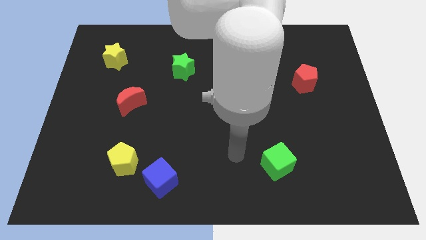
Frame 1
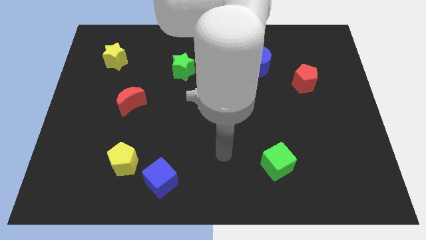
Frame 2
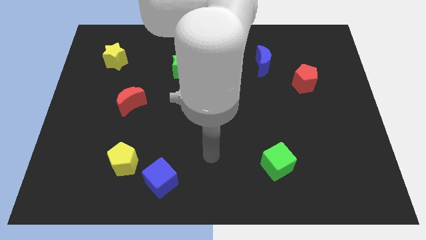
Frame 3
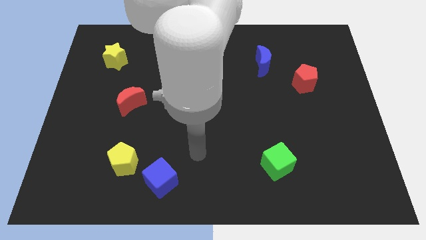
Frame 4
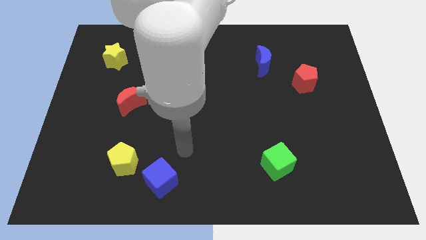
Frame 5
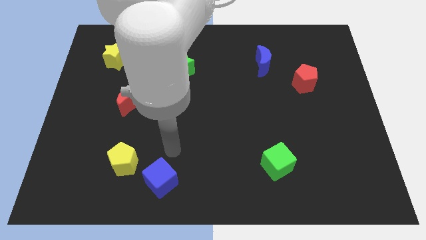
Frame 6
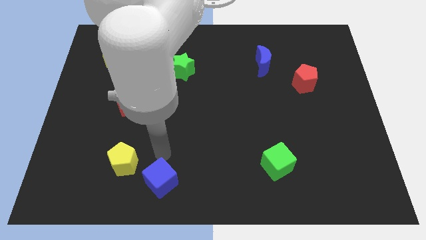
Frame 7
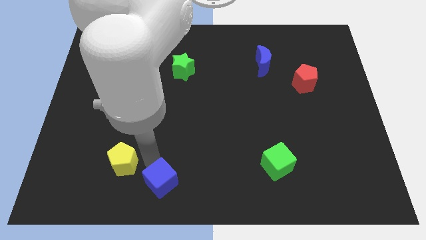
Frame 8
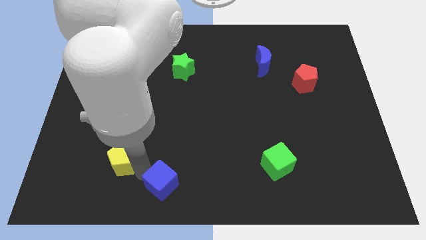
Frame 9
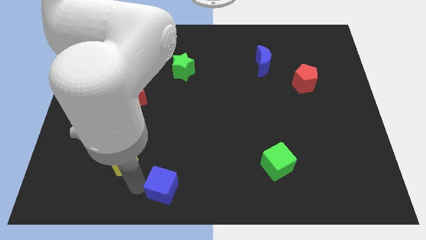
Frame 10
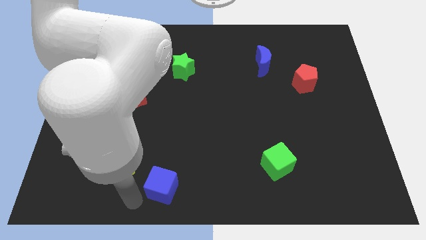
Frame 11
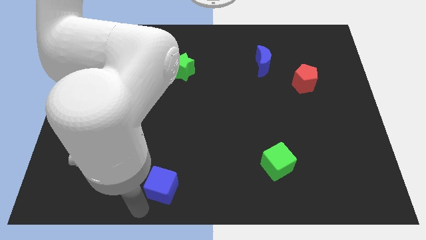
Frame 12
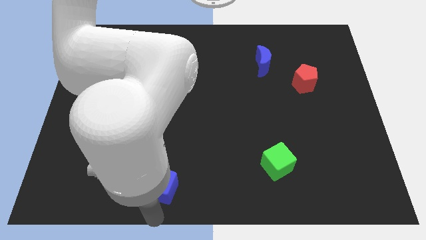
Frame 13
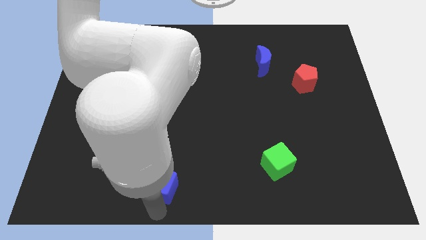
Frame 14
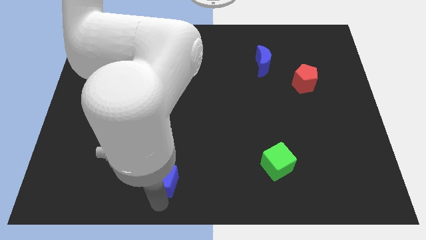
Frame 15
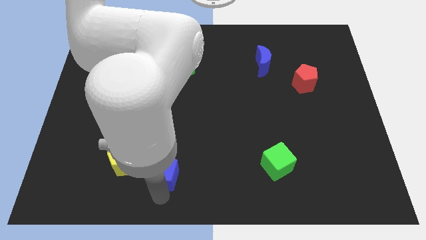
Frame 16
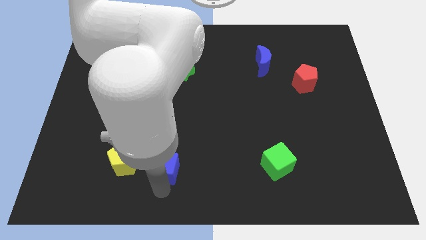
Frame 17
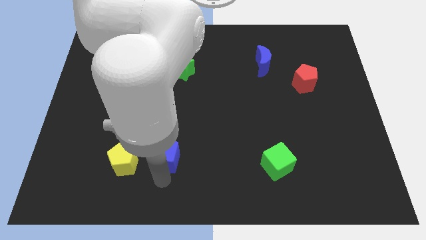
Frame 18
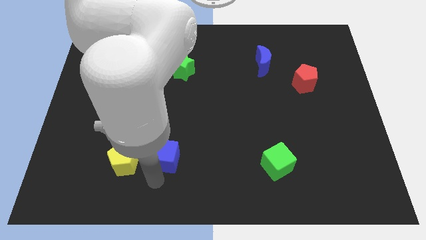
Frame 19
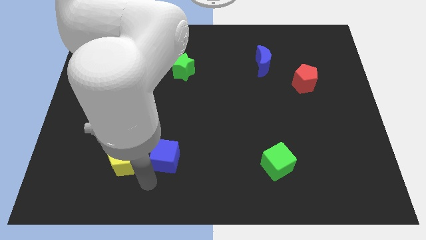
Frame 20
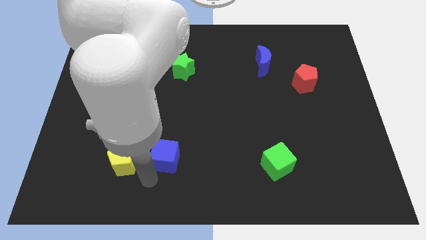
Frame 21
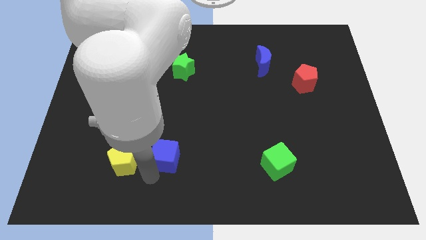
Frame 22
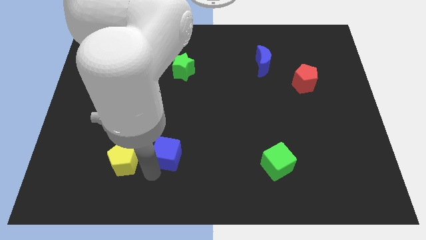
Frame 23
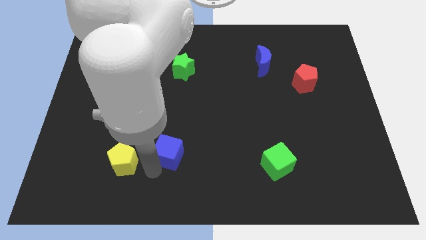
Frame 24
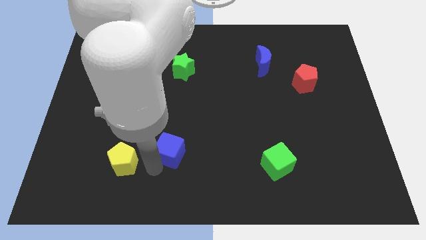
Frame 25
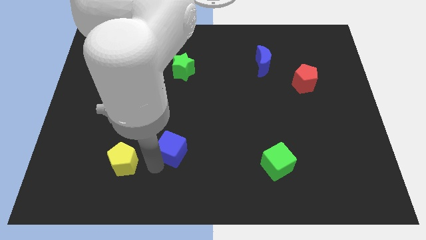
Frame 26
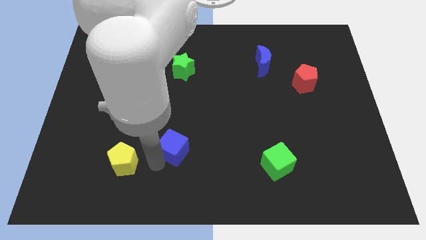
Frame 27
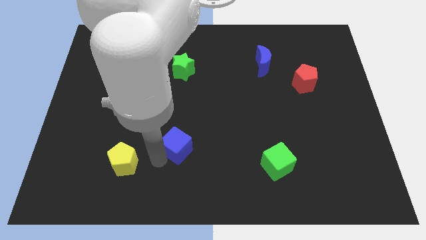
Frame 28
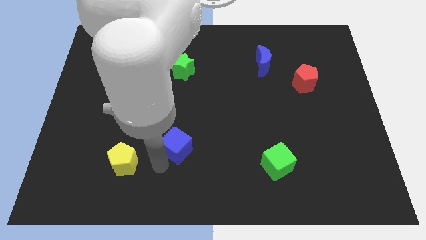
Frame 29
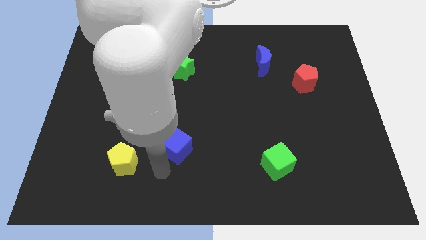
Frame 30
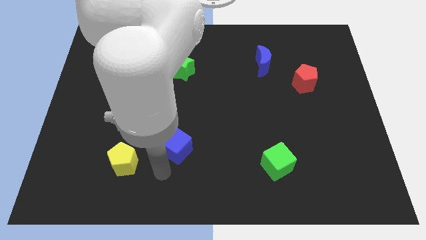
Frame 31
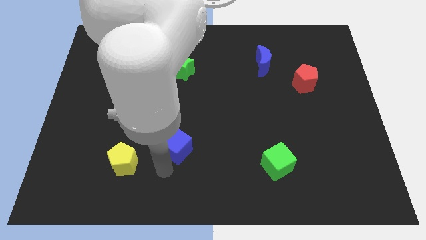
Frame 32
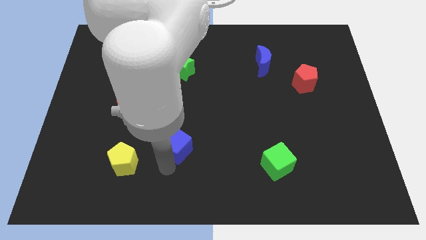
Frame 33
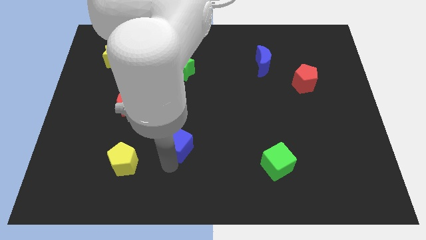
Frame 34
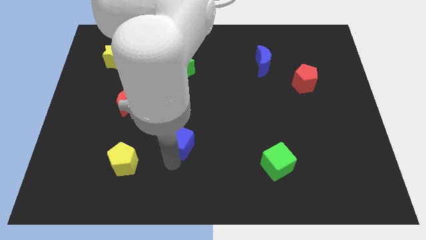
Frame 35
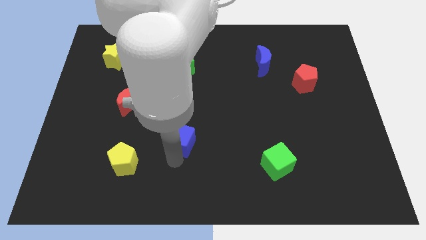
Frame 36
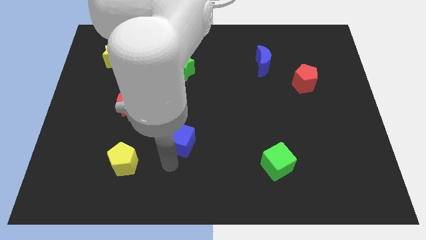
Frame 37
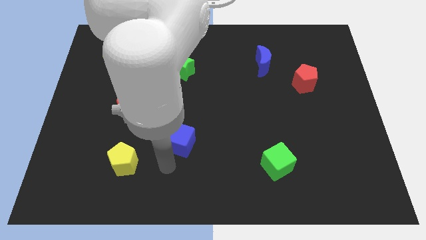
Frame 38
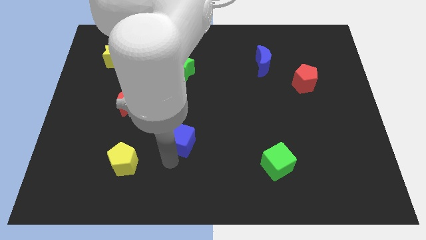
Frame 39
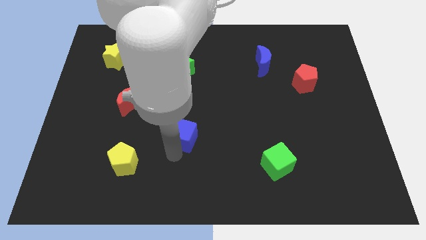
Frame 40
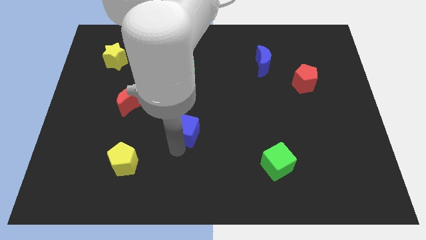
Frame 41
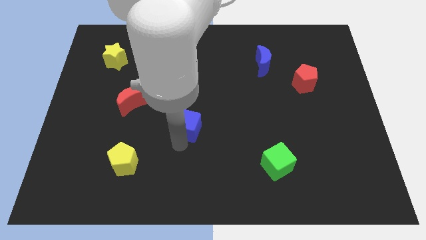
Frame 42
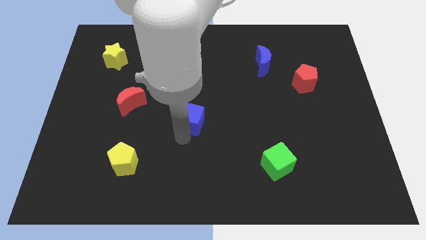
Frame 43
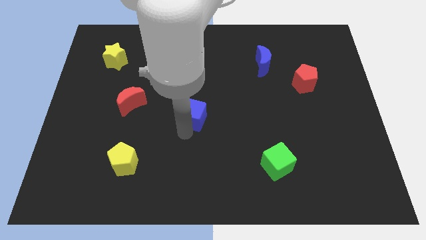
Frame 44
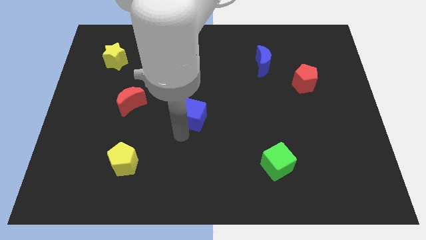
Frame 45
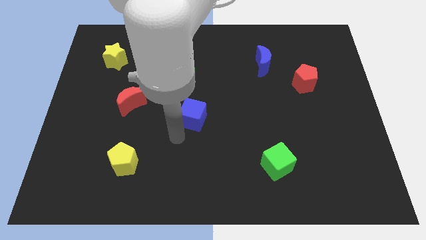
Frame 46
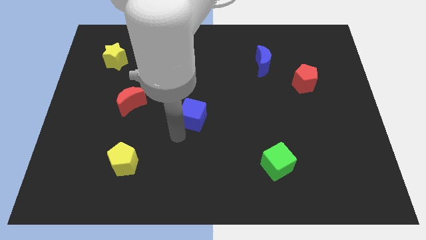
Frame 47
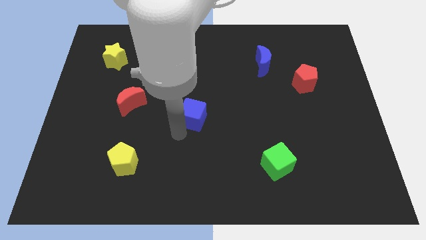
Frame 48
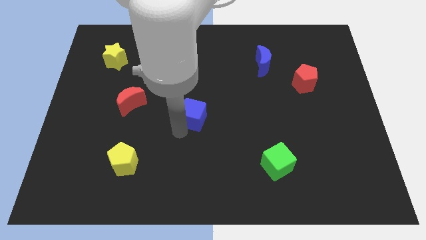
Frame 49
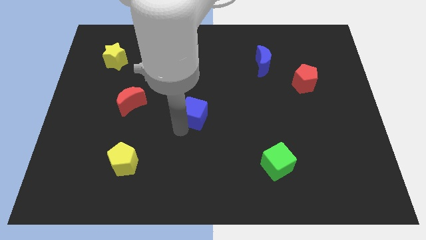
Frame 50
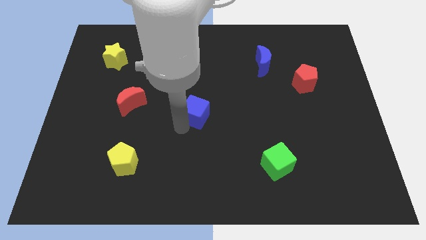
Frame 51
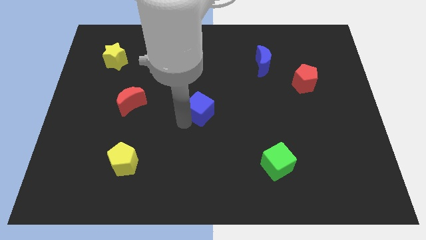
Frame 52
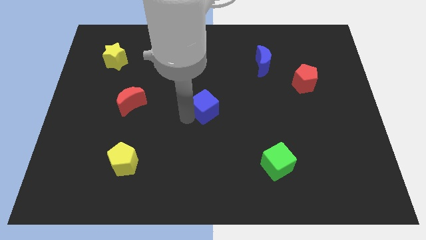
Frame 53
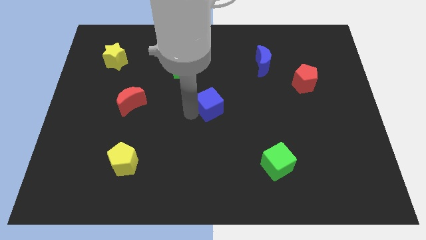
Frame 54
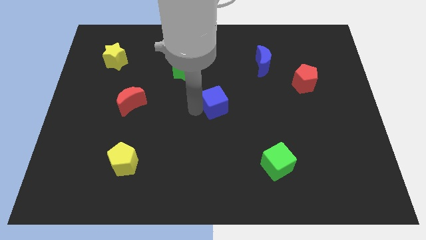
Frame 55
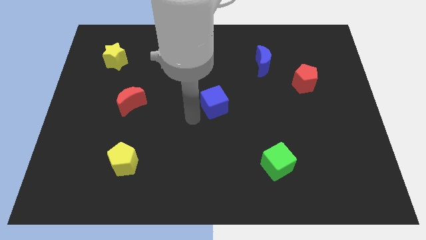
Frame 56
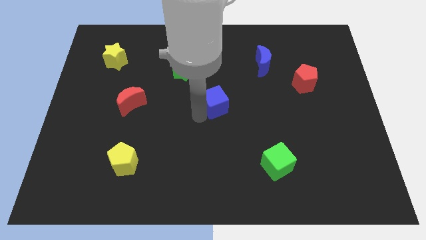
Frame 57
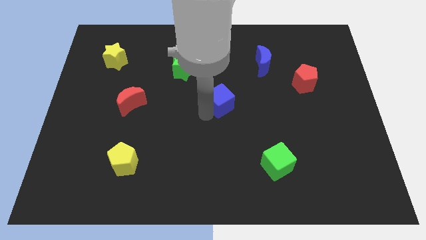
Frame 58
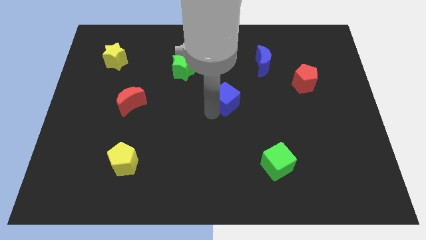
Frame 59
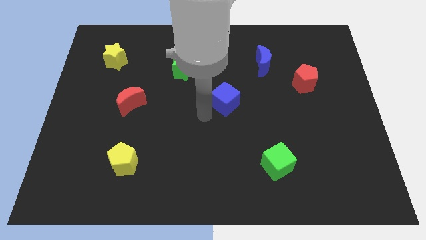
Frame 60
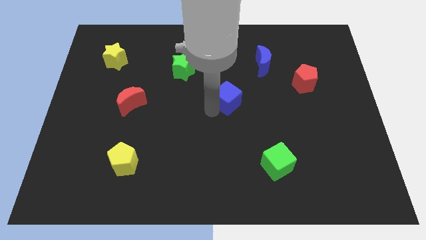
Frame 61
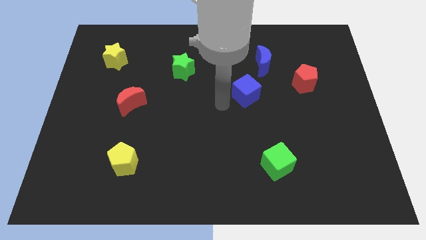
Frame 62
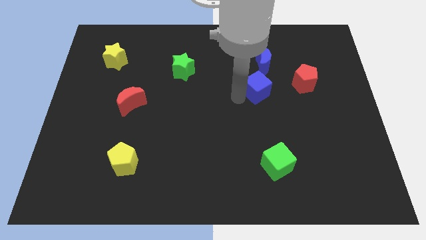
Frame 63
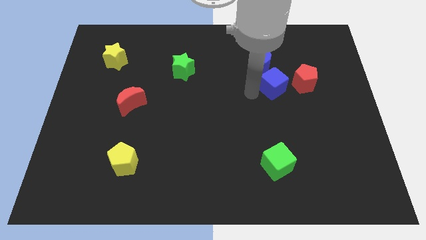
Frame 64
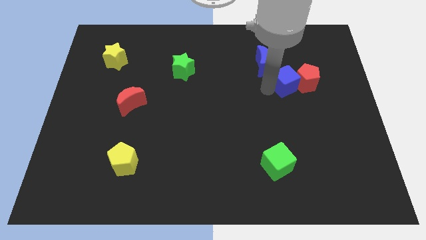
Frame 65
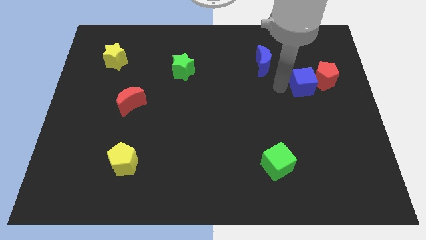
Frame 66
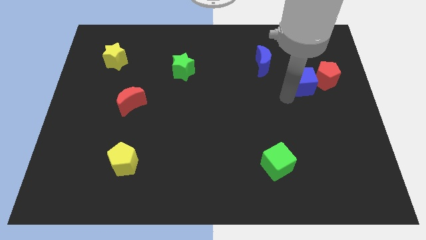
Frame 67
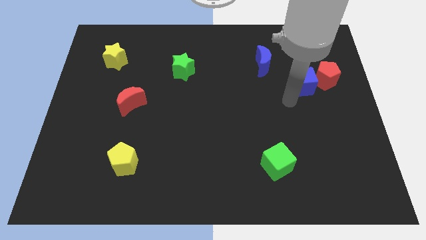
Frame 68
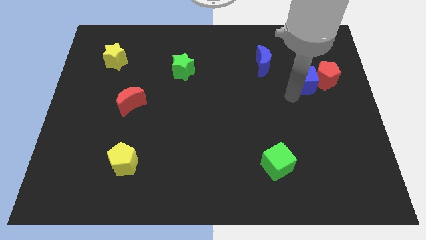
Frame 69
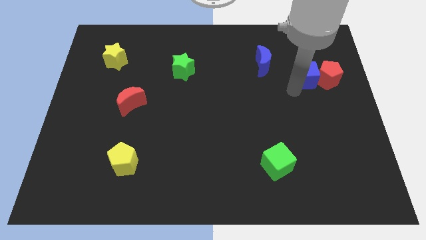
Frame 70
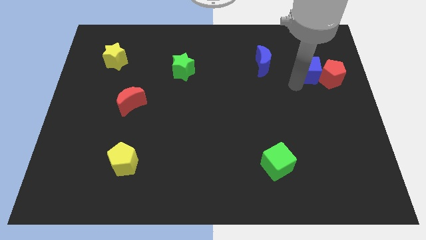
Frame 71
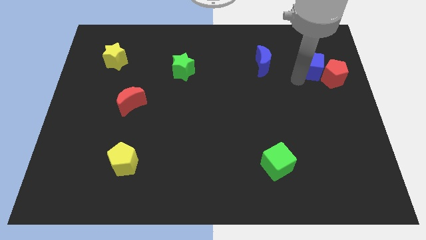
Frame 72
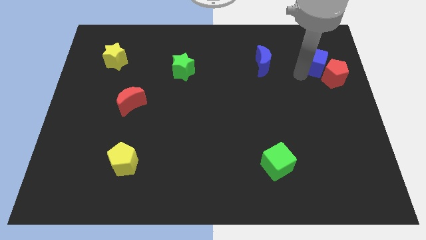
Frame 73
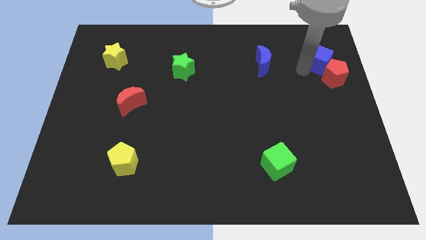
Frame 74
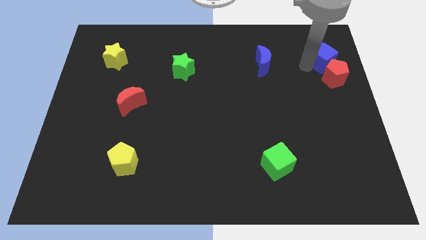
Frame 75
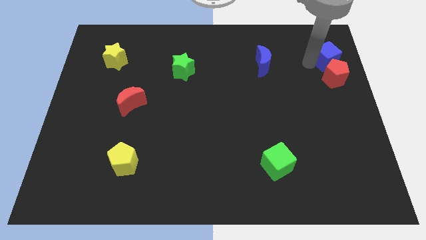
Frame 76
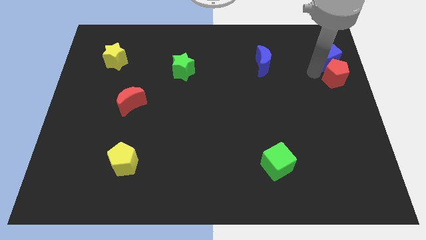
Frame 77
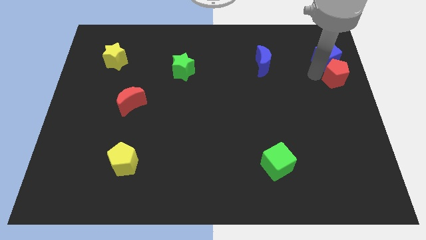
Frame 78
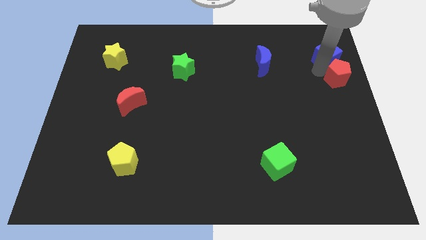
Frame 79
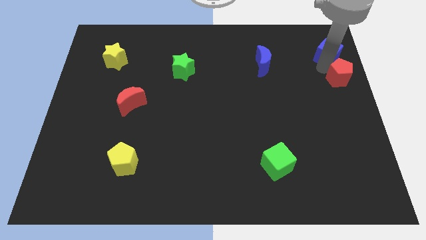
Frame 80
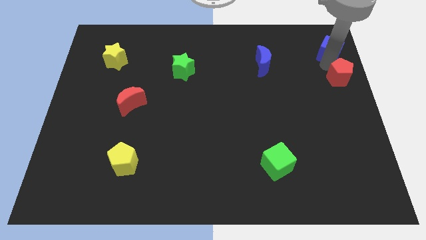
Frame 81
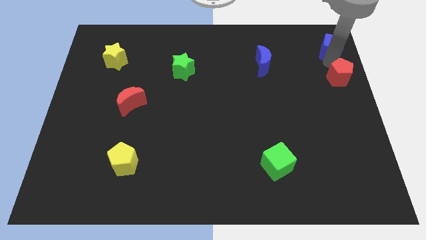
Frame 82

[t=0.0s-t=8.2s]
put the blue cube to the upper right corner
